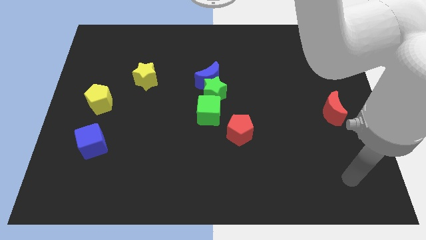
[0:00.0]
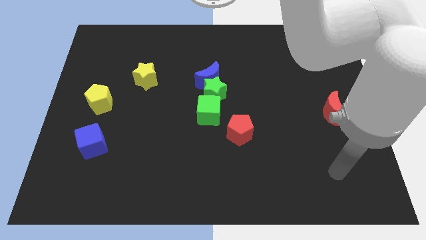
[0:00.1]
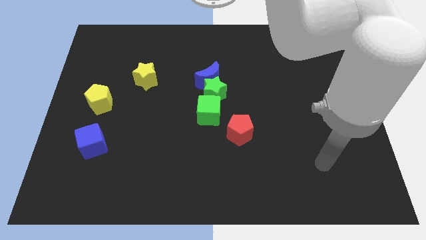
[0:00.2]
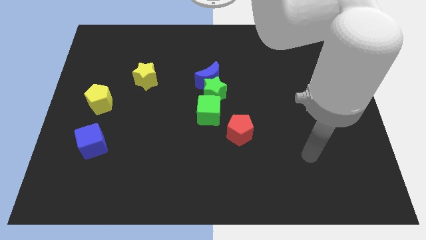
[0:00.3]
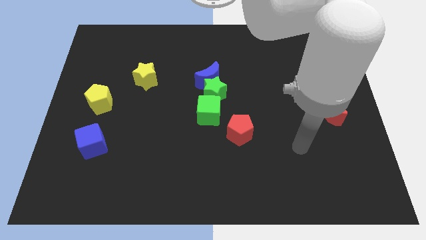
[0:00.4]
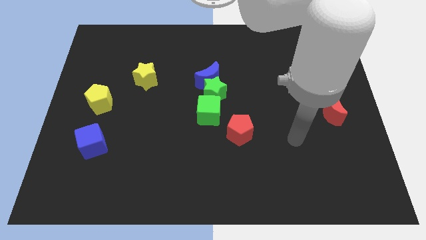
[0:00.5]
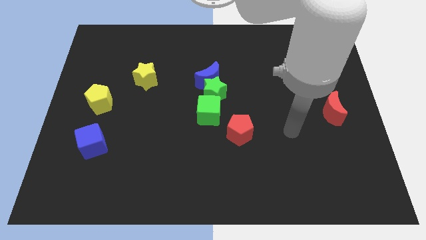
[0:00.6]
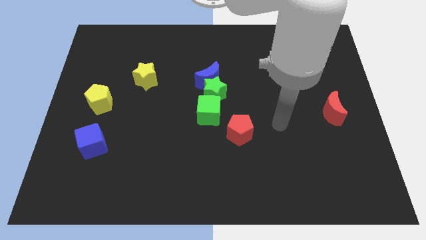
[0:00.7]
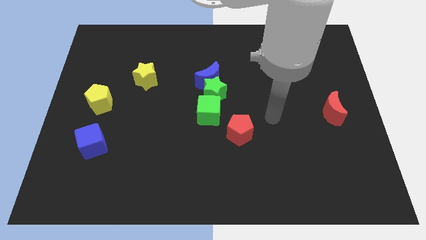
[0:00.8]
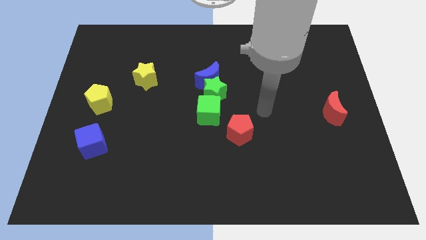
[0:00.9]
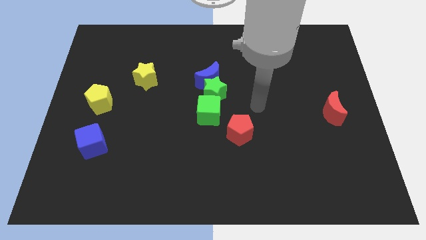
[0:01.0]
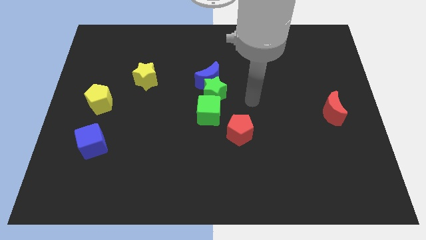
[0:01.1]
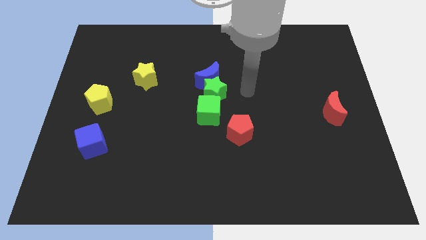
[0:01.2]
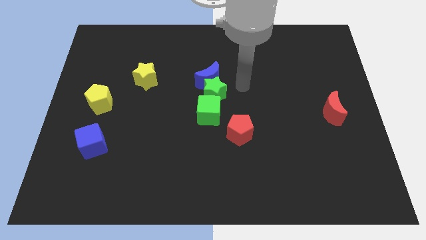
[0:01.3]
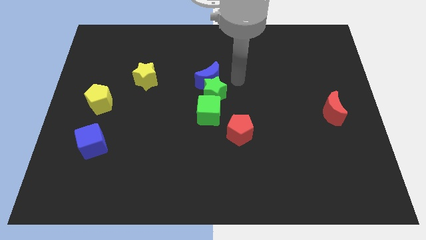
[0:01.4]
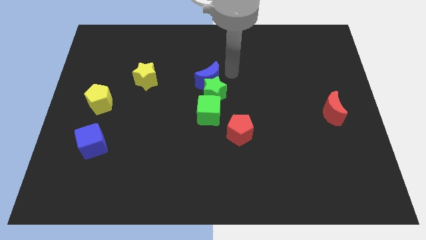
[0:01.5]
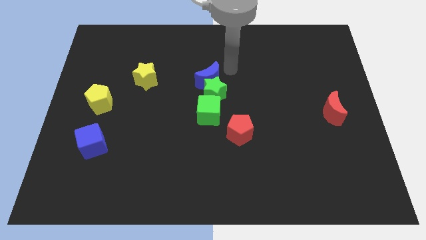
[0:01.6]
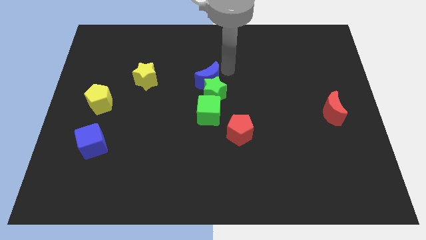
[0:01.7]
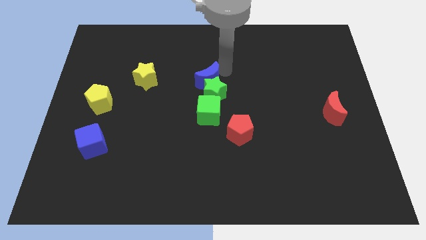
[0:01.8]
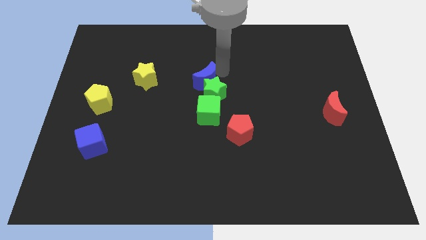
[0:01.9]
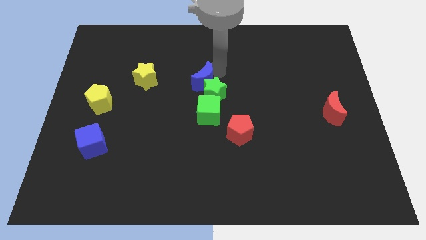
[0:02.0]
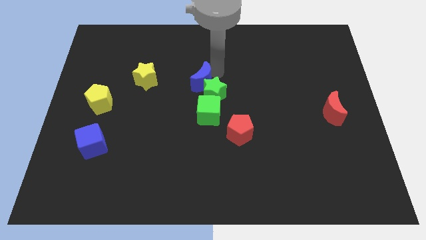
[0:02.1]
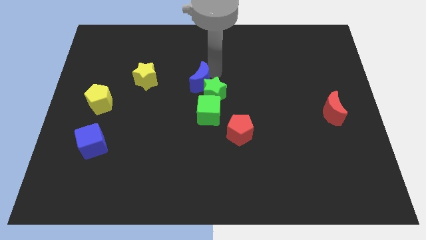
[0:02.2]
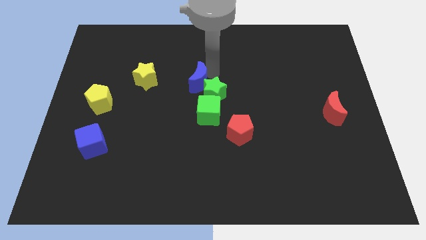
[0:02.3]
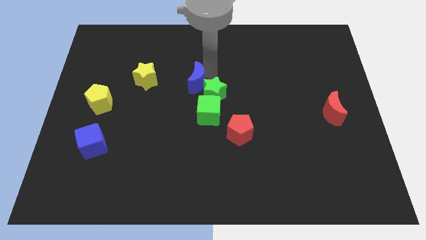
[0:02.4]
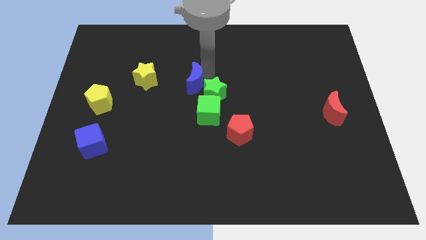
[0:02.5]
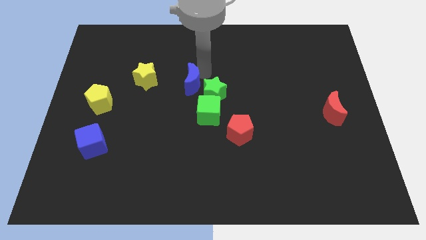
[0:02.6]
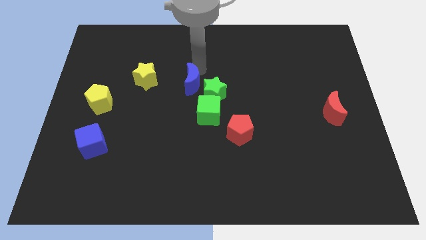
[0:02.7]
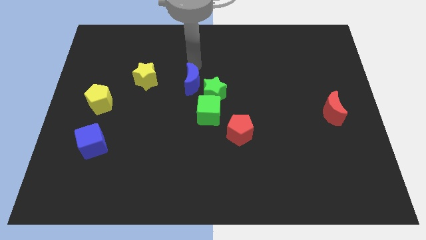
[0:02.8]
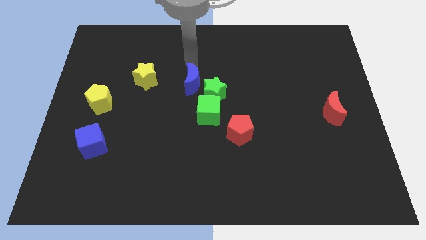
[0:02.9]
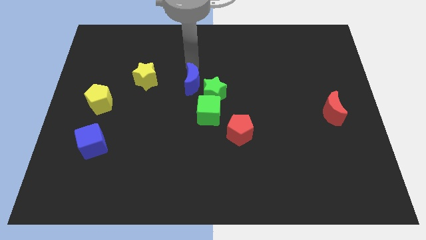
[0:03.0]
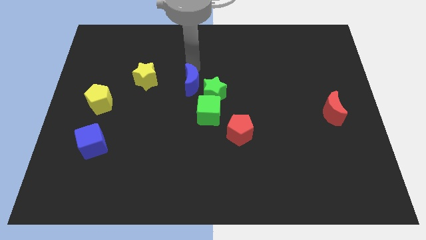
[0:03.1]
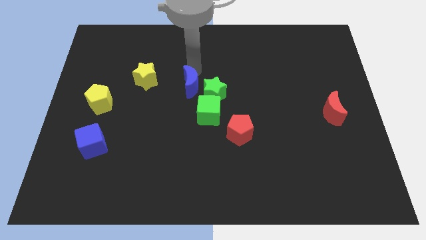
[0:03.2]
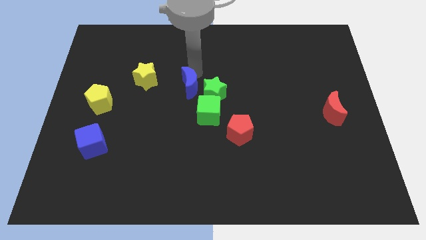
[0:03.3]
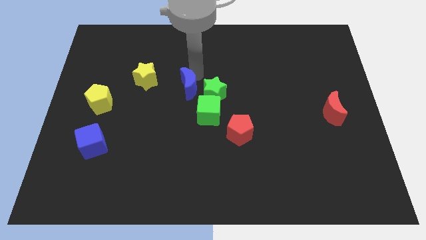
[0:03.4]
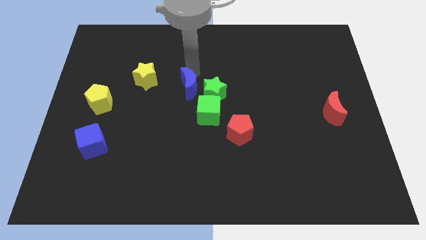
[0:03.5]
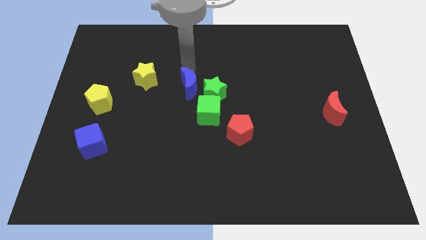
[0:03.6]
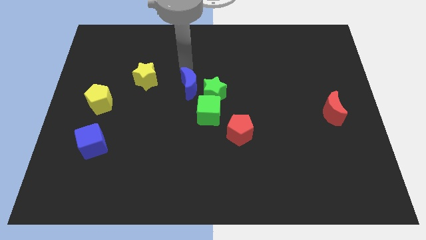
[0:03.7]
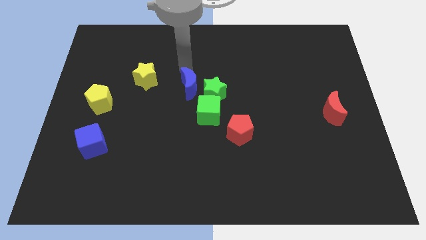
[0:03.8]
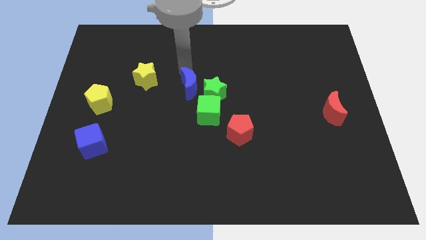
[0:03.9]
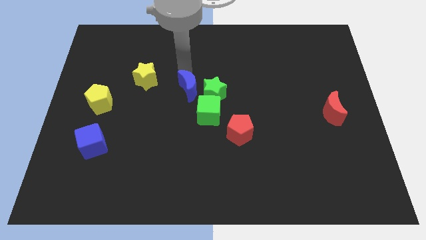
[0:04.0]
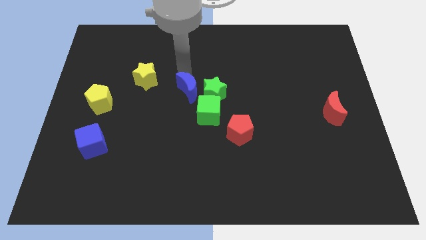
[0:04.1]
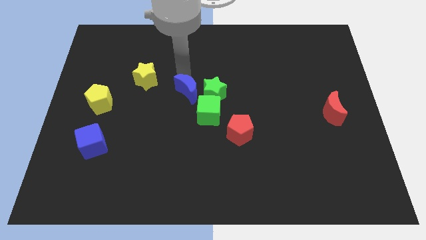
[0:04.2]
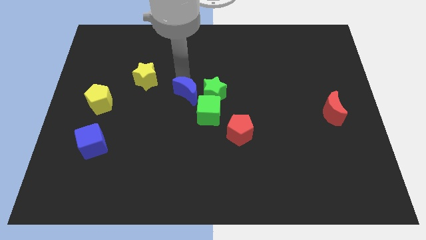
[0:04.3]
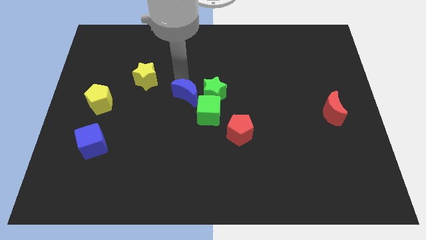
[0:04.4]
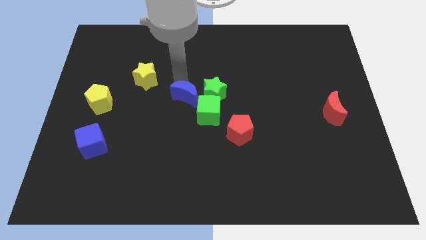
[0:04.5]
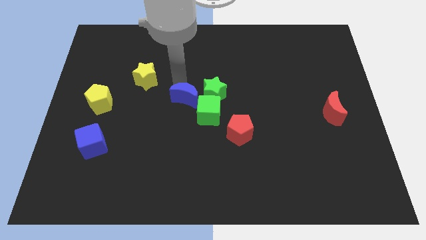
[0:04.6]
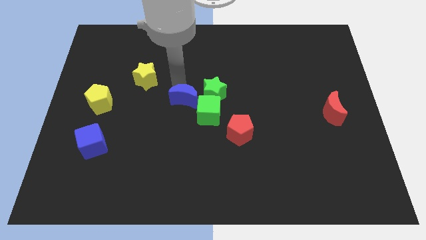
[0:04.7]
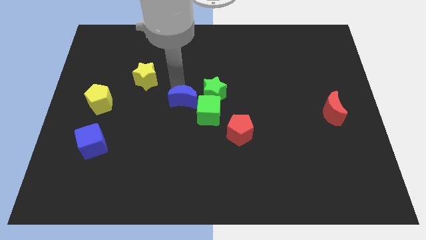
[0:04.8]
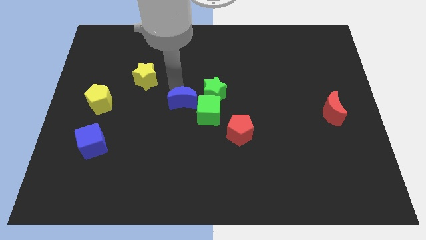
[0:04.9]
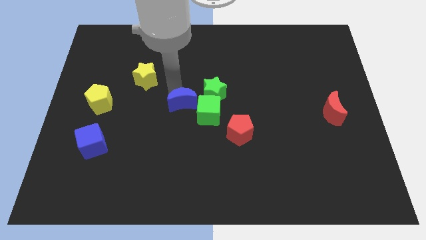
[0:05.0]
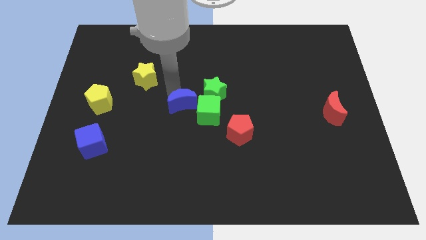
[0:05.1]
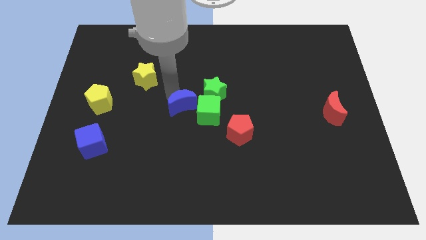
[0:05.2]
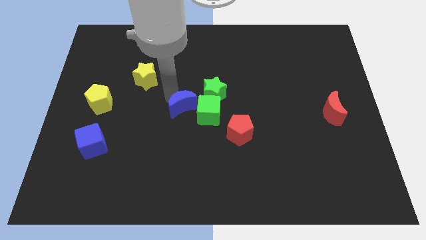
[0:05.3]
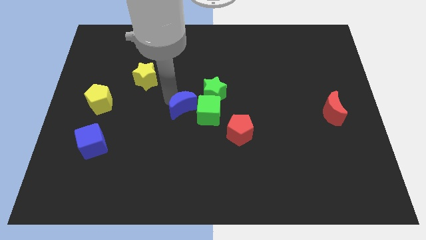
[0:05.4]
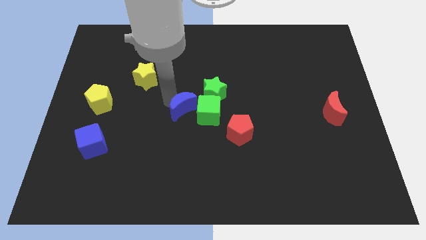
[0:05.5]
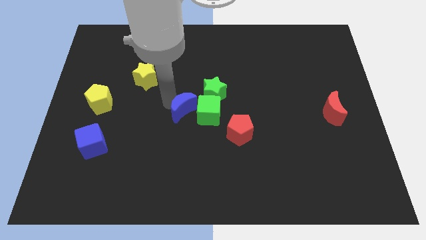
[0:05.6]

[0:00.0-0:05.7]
slide the blue moon next to the green cube

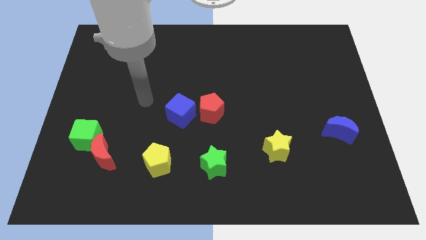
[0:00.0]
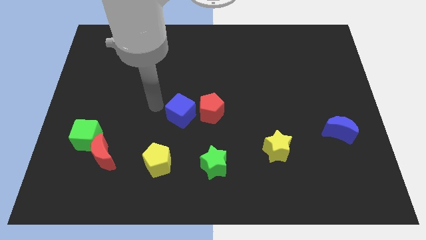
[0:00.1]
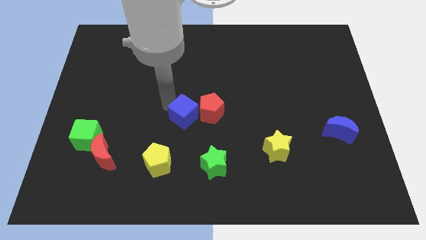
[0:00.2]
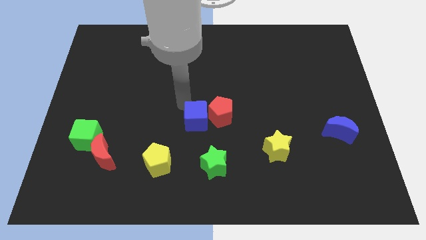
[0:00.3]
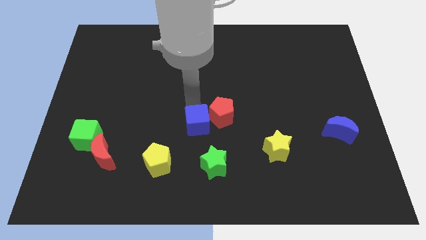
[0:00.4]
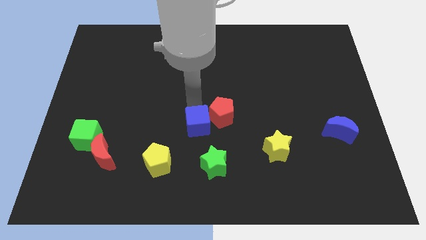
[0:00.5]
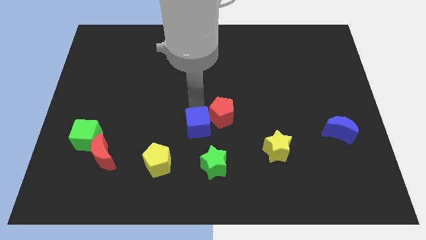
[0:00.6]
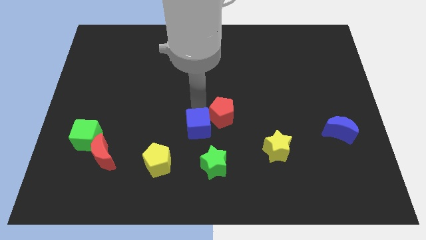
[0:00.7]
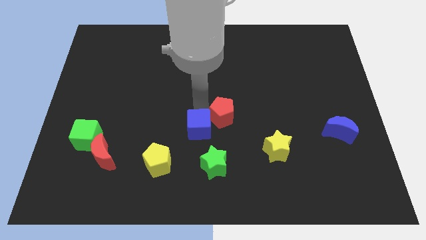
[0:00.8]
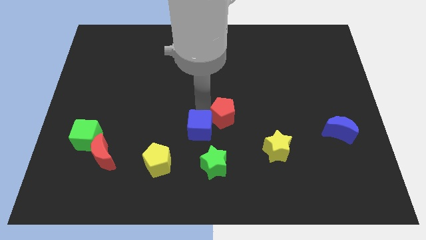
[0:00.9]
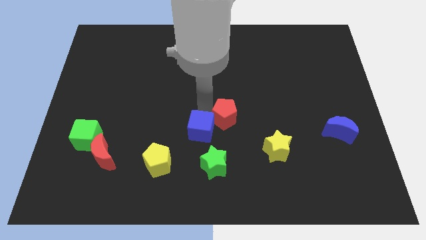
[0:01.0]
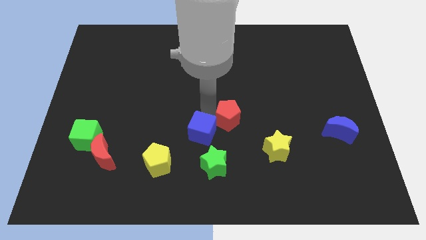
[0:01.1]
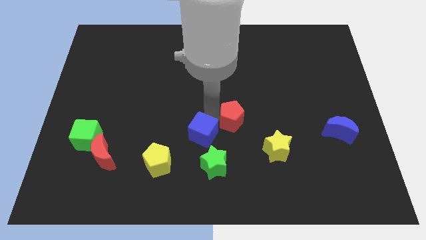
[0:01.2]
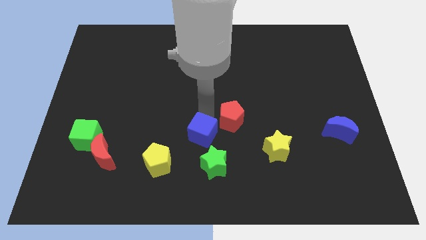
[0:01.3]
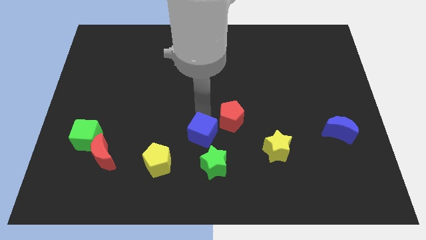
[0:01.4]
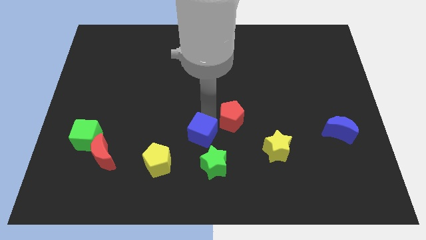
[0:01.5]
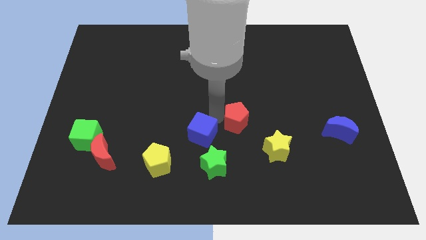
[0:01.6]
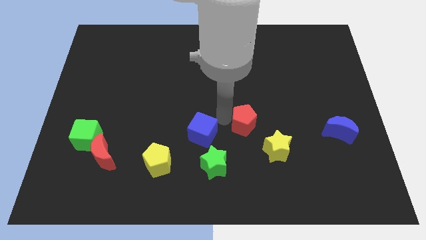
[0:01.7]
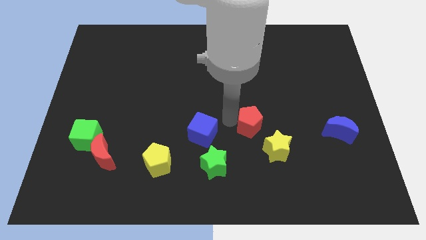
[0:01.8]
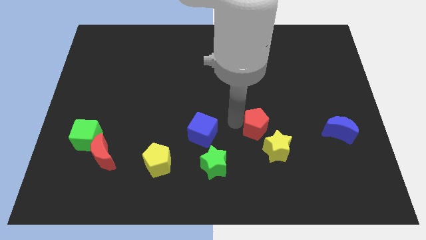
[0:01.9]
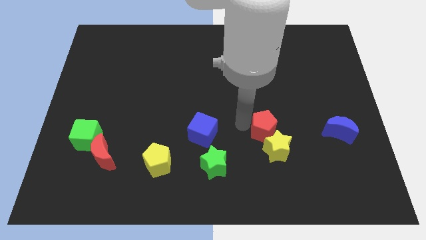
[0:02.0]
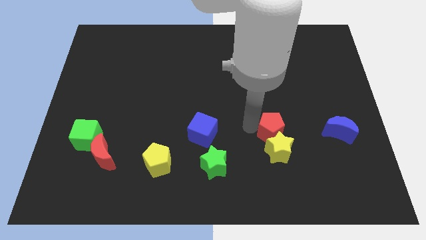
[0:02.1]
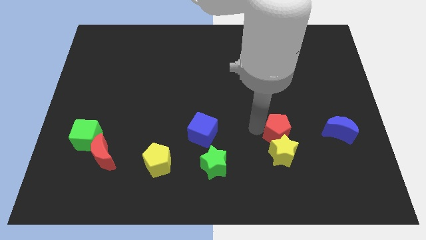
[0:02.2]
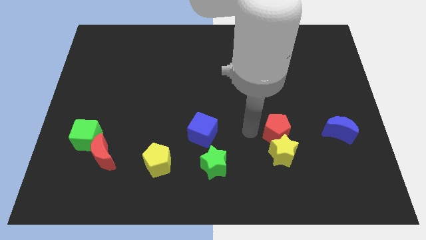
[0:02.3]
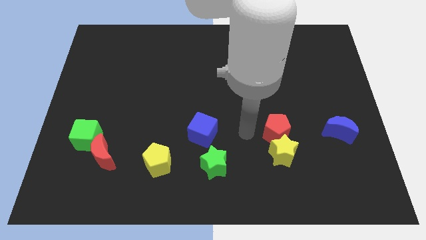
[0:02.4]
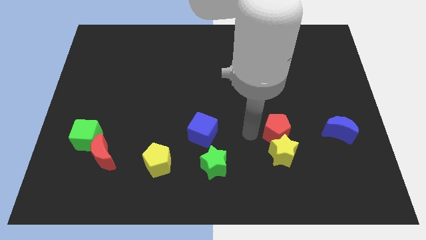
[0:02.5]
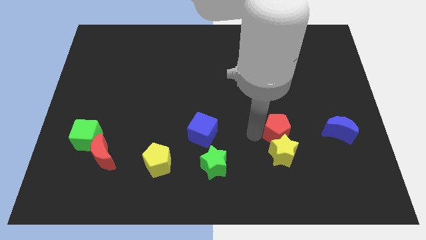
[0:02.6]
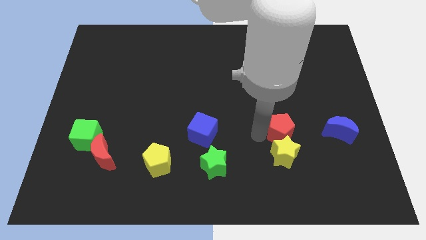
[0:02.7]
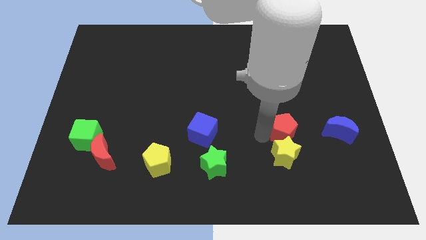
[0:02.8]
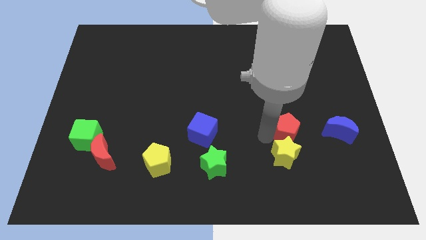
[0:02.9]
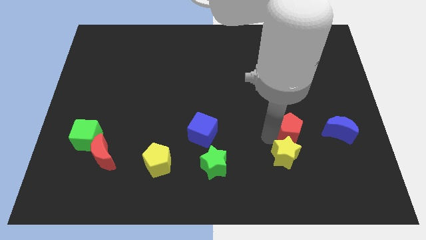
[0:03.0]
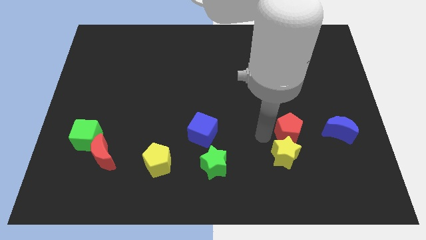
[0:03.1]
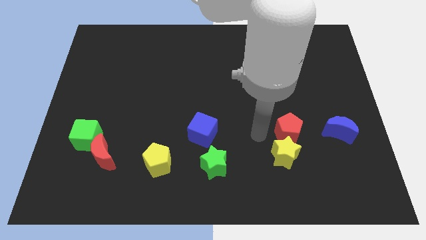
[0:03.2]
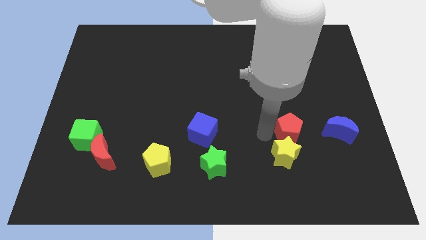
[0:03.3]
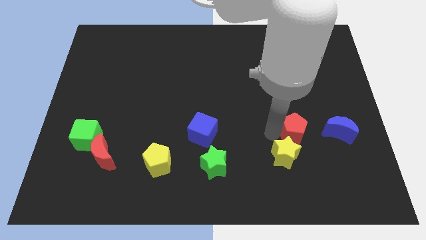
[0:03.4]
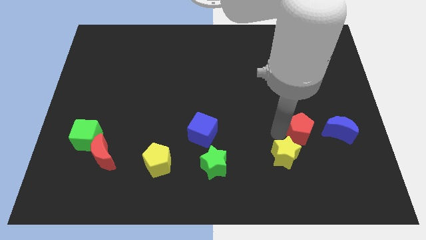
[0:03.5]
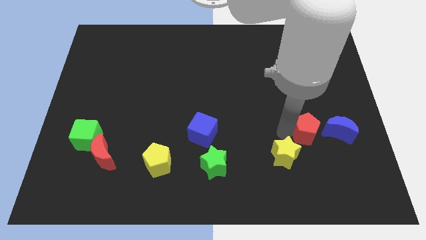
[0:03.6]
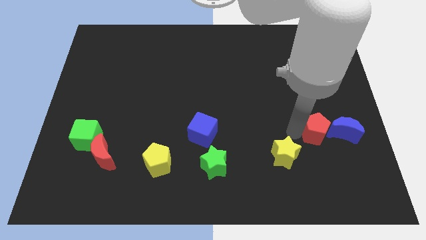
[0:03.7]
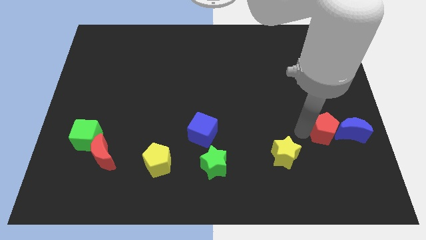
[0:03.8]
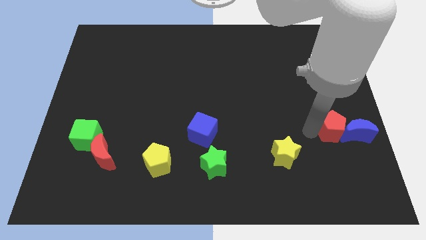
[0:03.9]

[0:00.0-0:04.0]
push the red pentagon towards the blue moon
